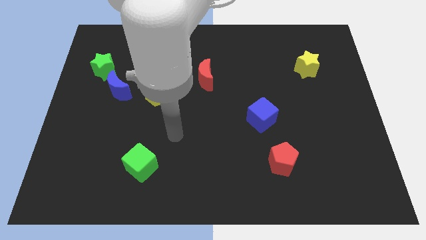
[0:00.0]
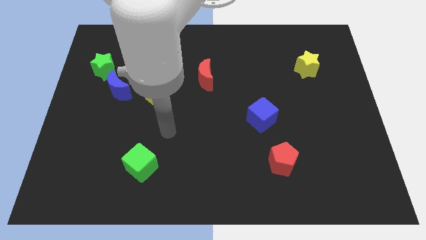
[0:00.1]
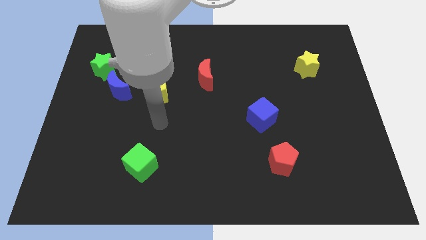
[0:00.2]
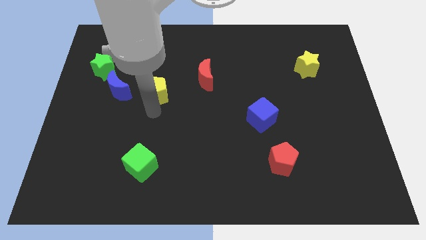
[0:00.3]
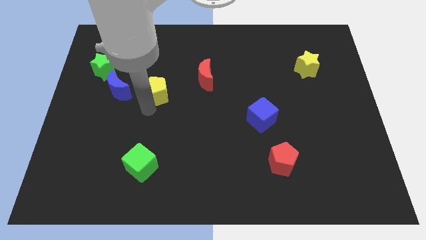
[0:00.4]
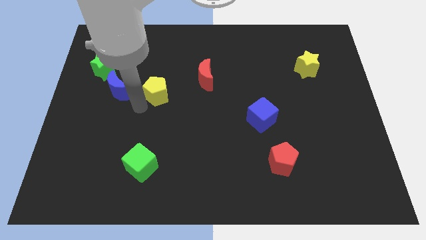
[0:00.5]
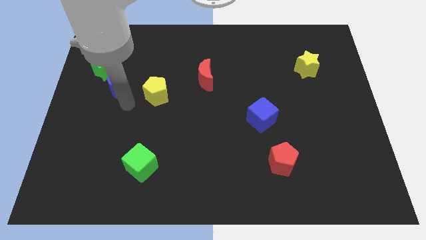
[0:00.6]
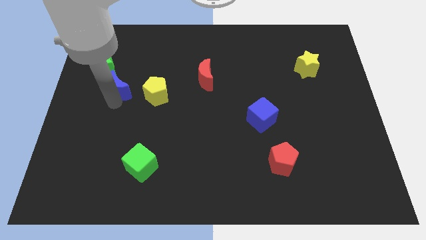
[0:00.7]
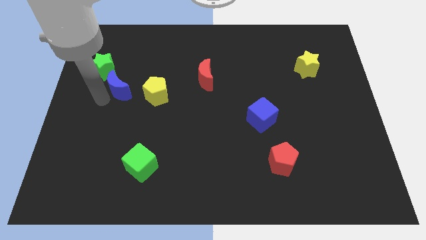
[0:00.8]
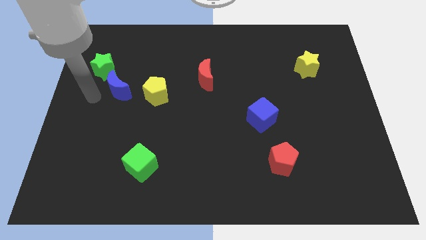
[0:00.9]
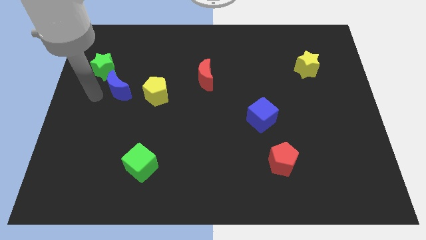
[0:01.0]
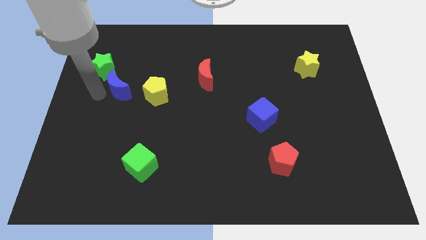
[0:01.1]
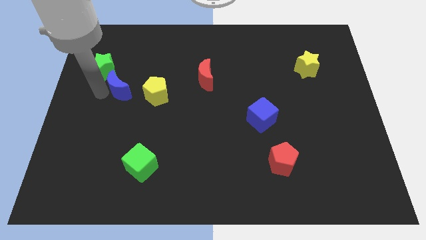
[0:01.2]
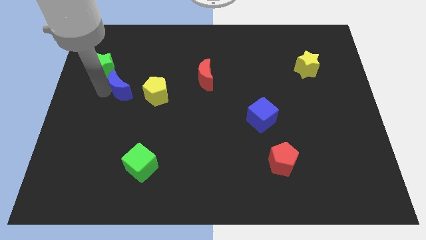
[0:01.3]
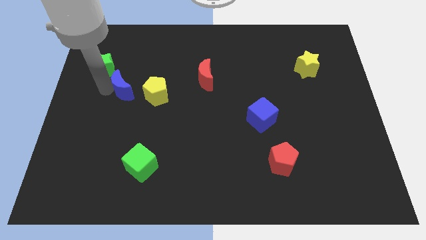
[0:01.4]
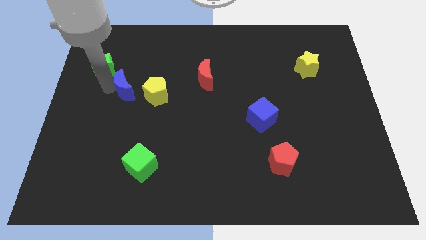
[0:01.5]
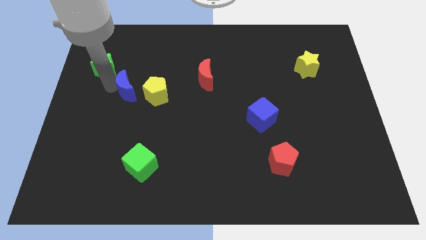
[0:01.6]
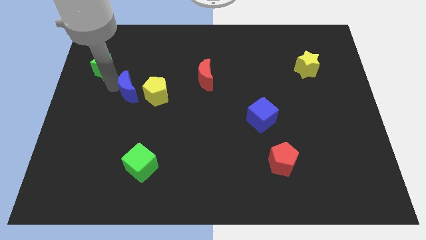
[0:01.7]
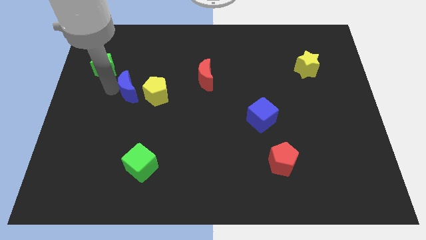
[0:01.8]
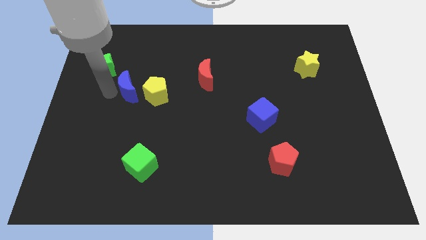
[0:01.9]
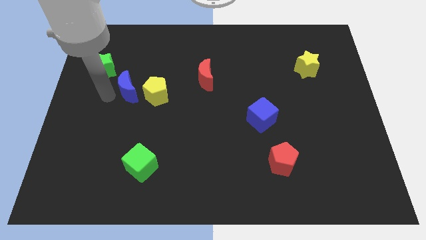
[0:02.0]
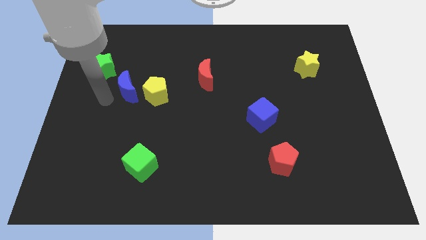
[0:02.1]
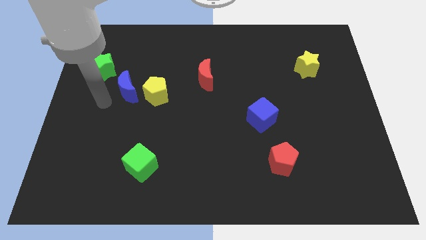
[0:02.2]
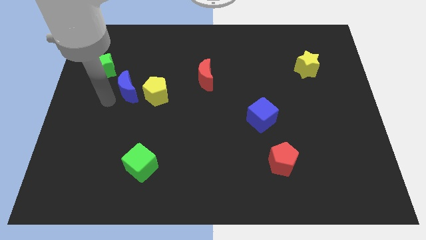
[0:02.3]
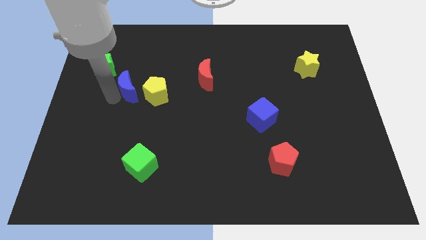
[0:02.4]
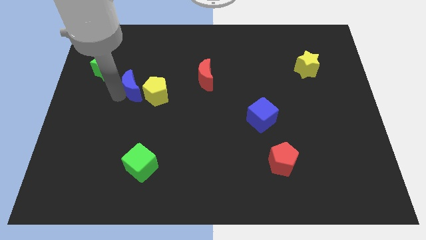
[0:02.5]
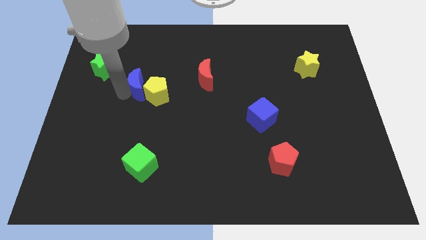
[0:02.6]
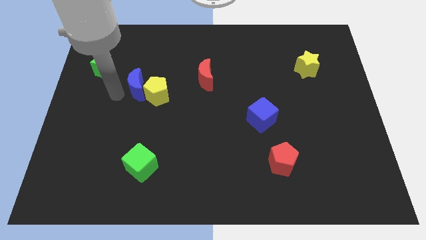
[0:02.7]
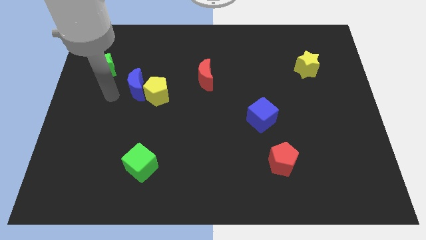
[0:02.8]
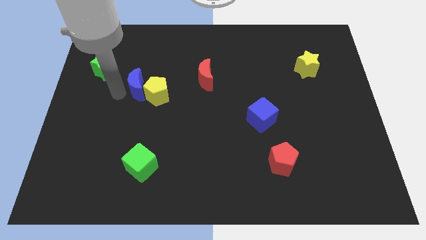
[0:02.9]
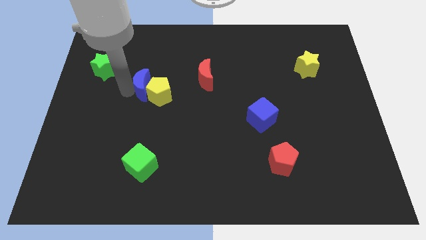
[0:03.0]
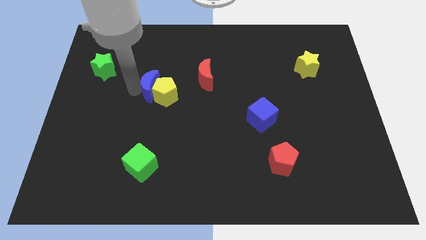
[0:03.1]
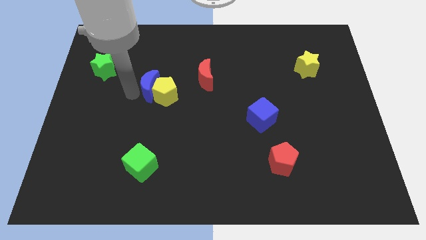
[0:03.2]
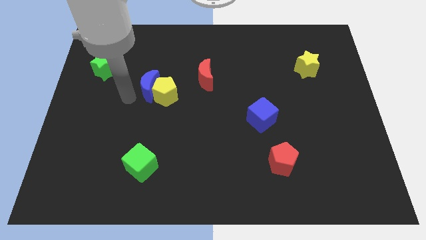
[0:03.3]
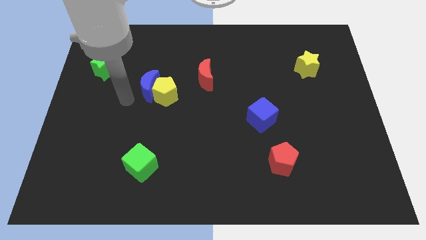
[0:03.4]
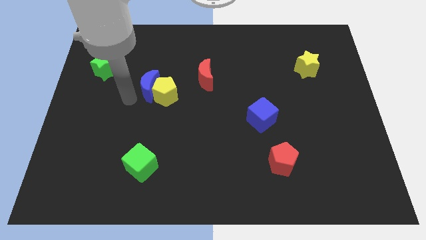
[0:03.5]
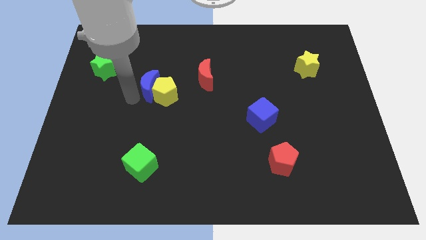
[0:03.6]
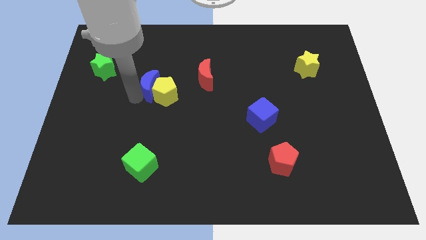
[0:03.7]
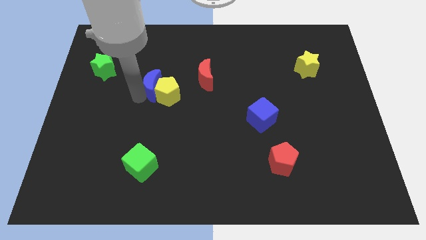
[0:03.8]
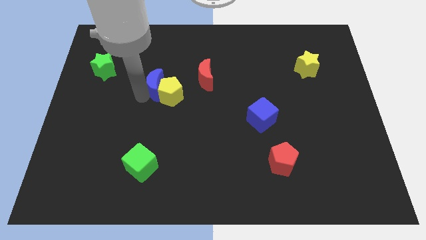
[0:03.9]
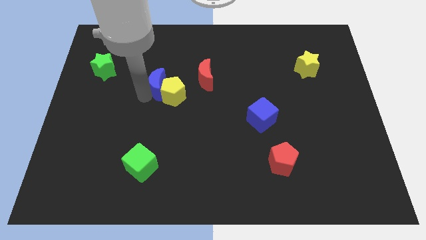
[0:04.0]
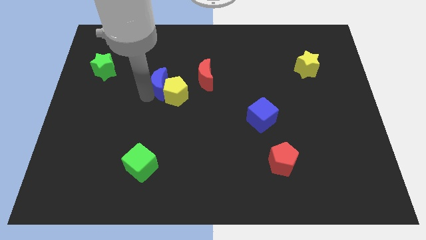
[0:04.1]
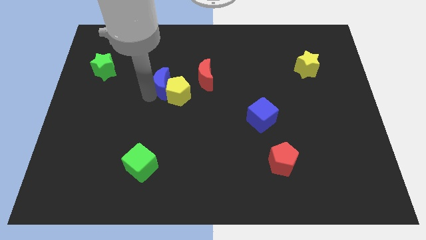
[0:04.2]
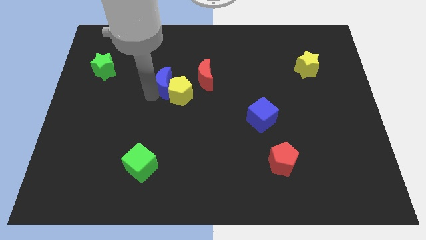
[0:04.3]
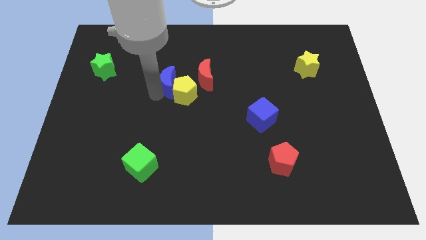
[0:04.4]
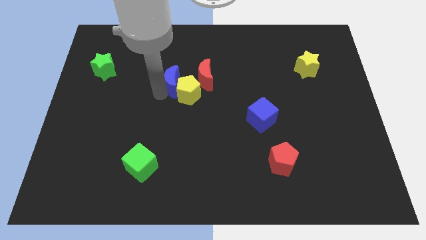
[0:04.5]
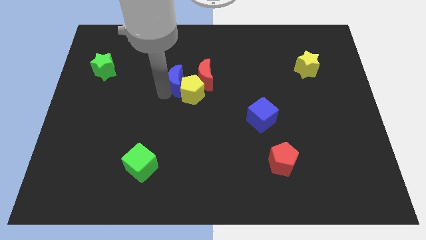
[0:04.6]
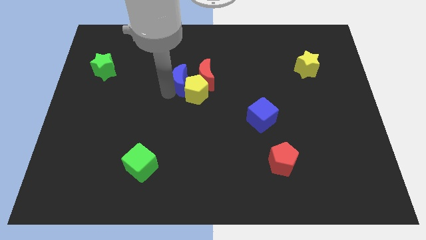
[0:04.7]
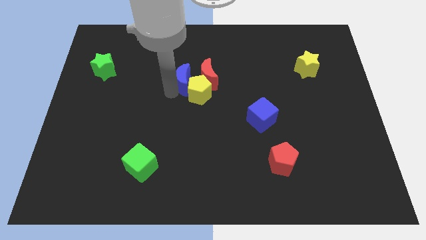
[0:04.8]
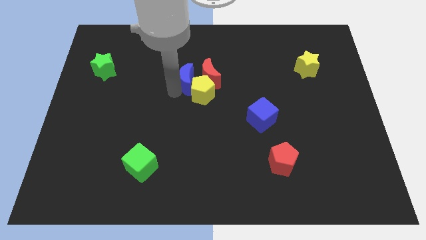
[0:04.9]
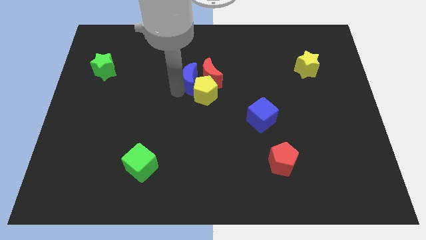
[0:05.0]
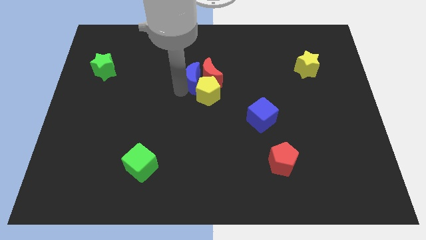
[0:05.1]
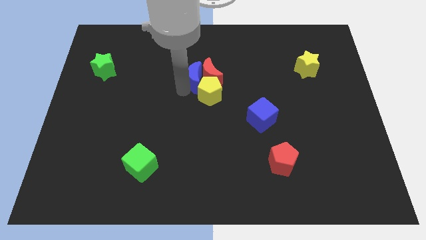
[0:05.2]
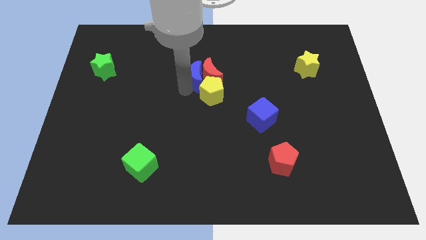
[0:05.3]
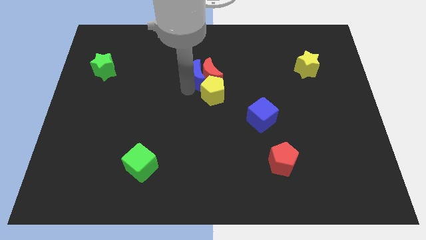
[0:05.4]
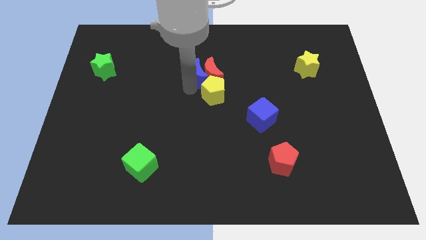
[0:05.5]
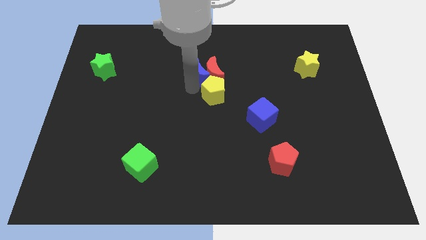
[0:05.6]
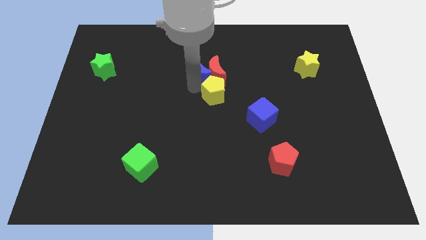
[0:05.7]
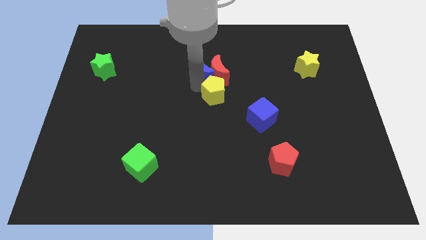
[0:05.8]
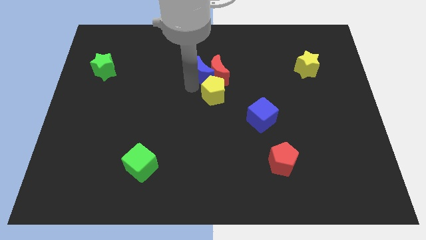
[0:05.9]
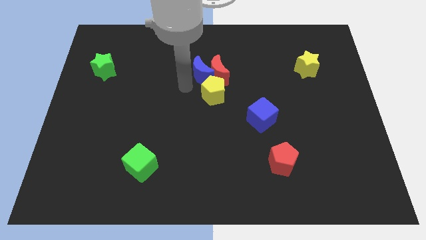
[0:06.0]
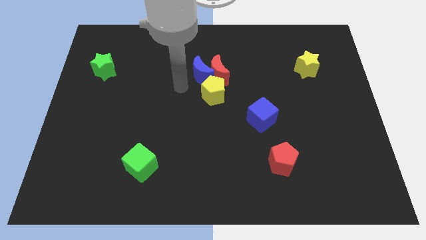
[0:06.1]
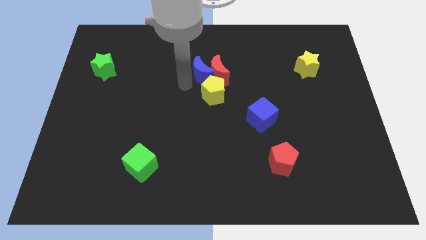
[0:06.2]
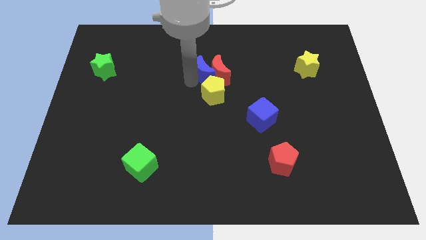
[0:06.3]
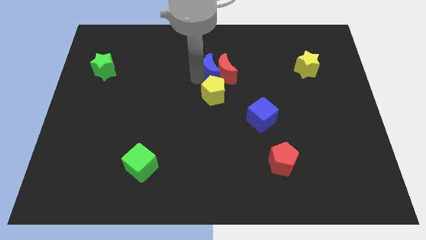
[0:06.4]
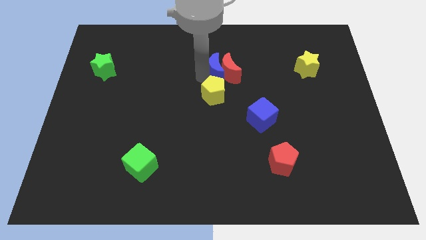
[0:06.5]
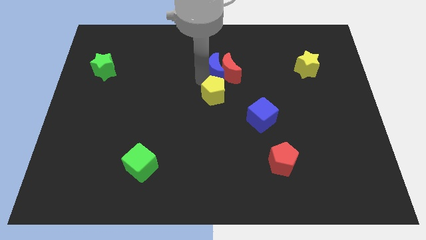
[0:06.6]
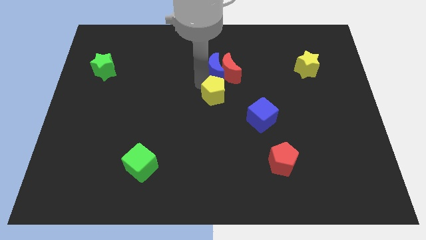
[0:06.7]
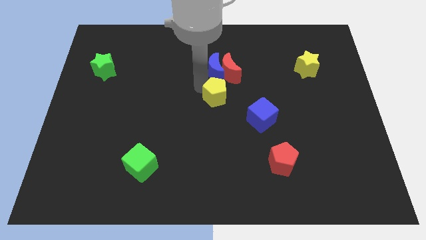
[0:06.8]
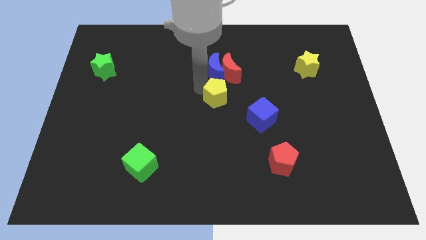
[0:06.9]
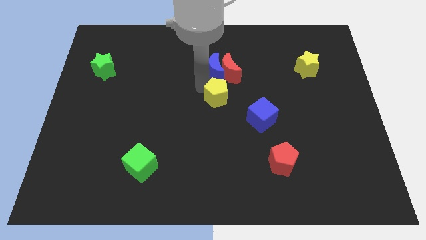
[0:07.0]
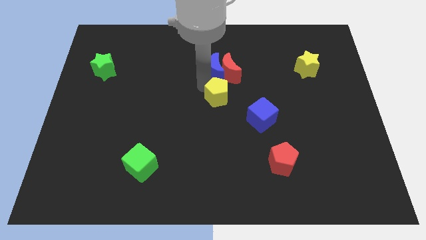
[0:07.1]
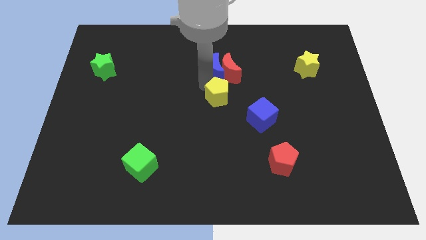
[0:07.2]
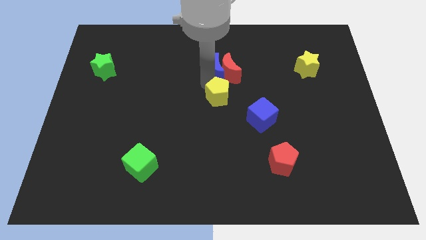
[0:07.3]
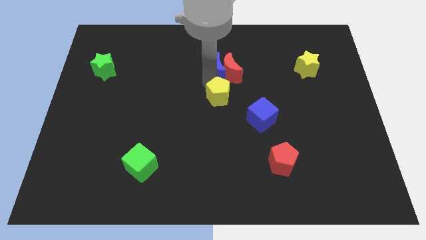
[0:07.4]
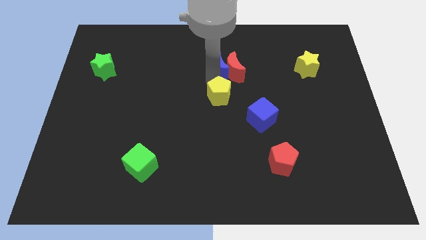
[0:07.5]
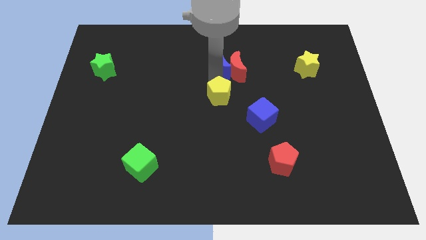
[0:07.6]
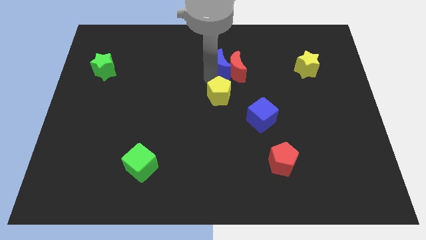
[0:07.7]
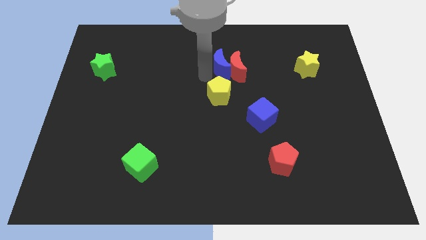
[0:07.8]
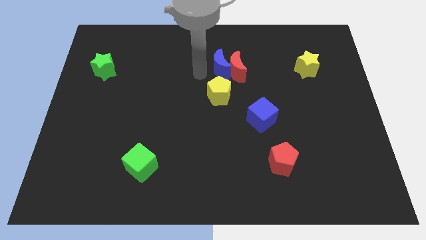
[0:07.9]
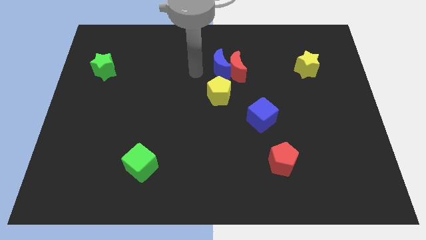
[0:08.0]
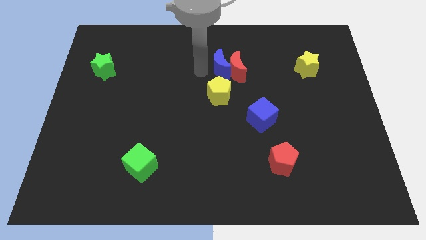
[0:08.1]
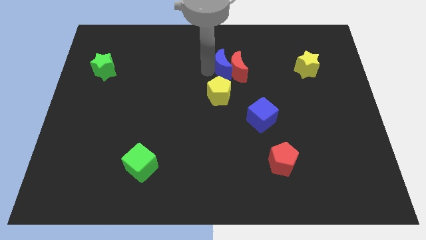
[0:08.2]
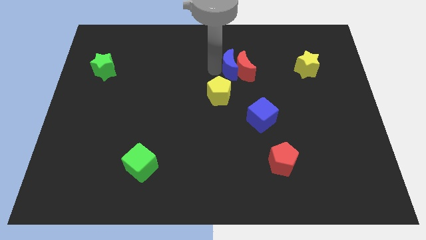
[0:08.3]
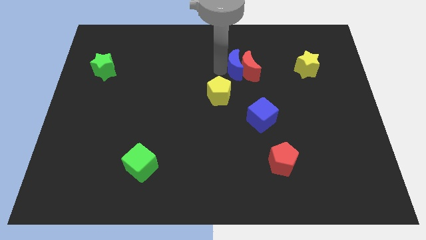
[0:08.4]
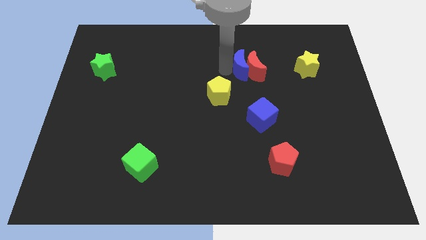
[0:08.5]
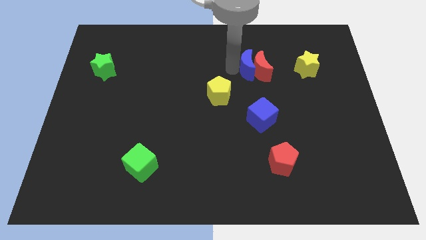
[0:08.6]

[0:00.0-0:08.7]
slide the blue moon left of the yellow star
